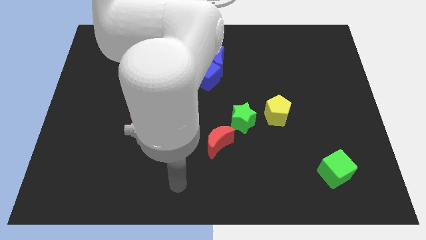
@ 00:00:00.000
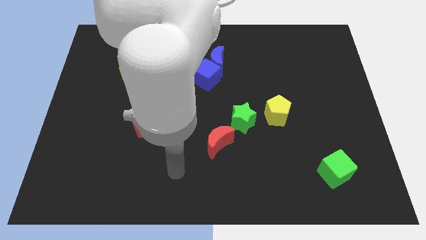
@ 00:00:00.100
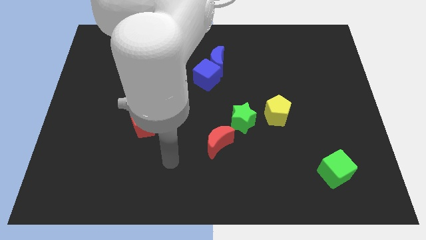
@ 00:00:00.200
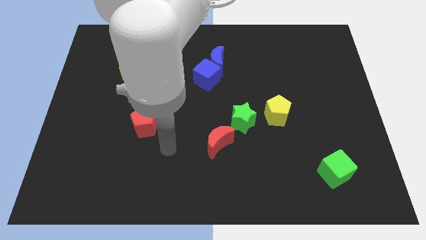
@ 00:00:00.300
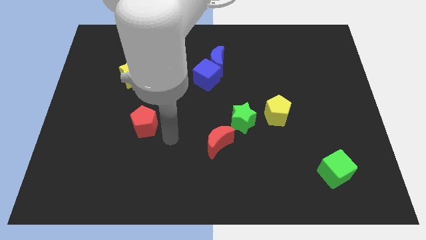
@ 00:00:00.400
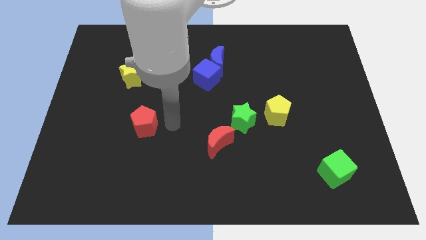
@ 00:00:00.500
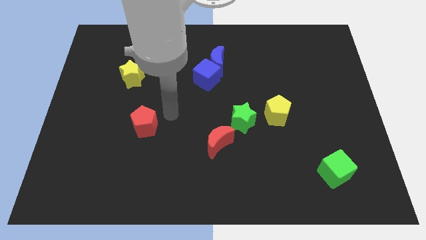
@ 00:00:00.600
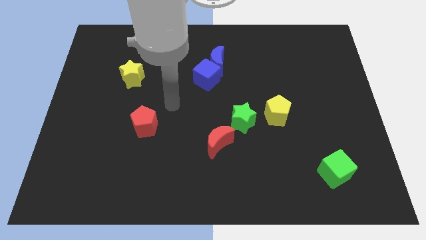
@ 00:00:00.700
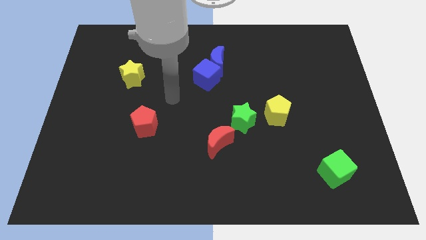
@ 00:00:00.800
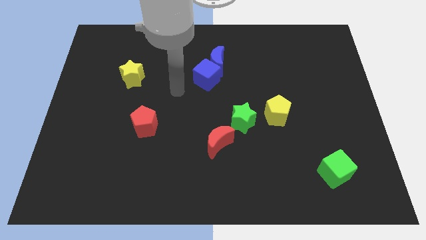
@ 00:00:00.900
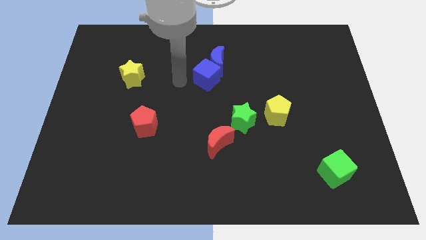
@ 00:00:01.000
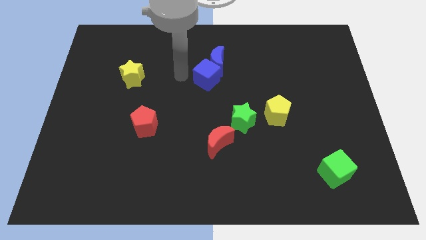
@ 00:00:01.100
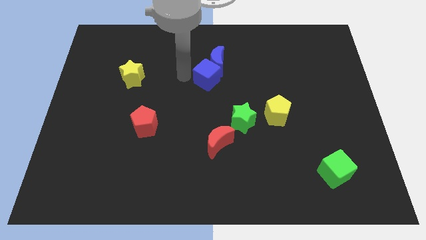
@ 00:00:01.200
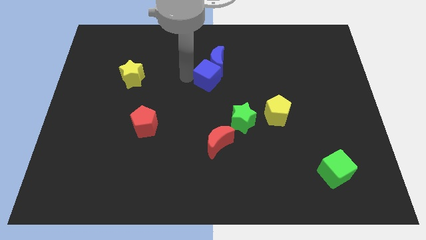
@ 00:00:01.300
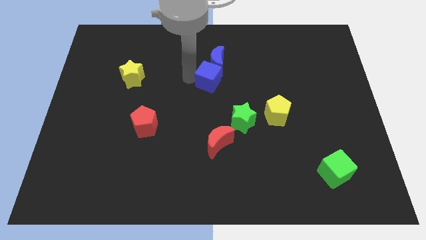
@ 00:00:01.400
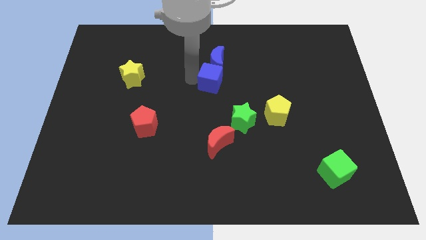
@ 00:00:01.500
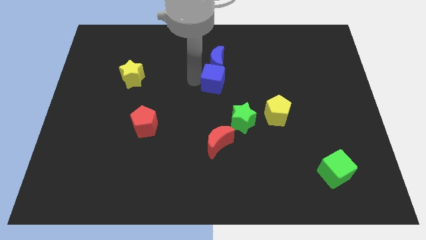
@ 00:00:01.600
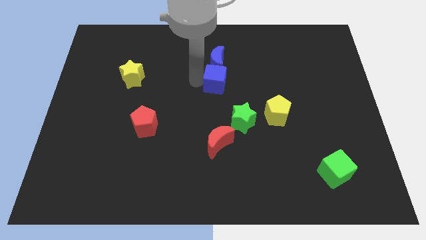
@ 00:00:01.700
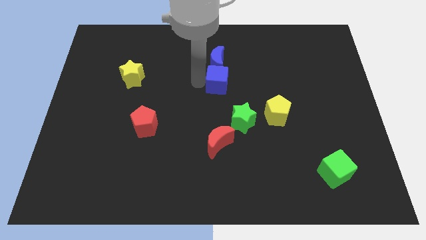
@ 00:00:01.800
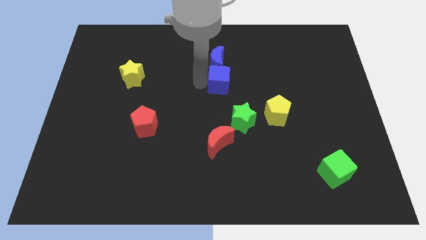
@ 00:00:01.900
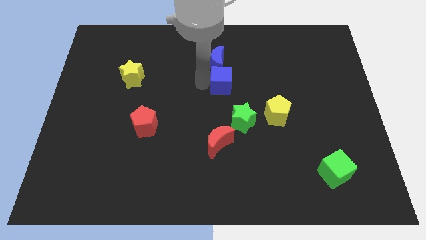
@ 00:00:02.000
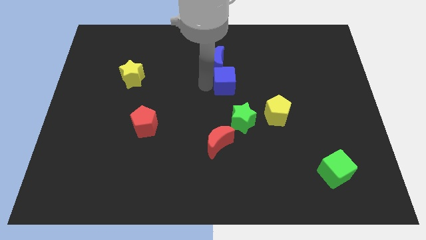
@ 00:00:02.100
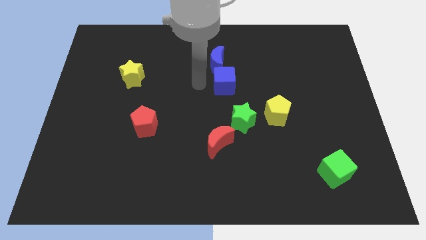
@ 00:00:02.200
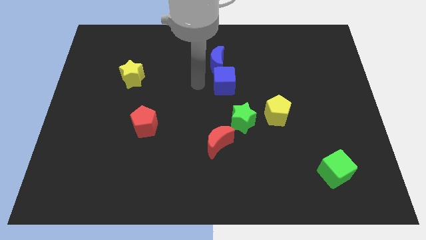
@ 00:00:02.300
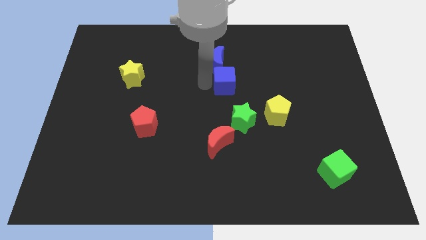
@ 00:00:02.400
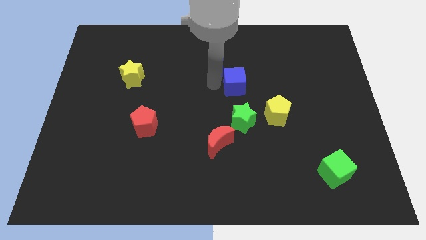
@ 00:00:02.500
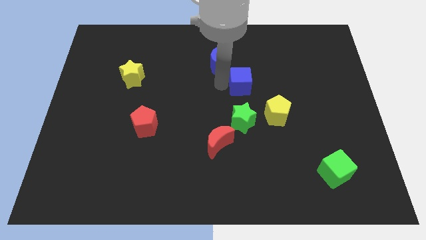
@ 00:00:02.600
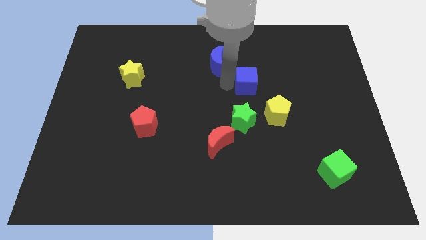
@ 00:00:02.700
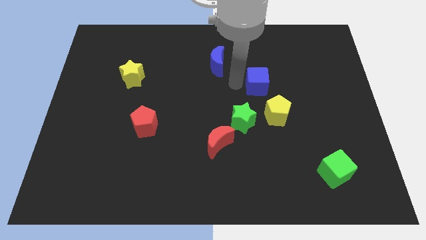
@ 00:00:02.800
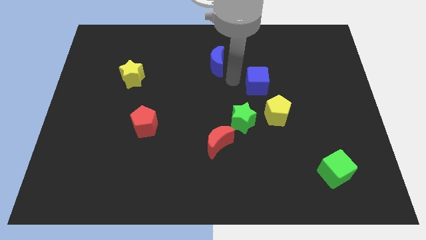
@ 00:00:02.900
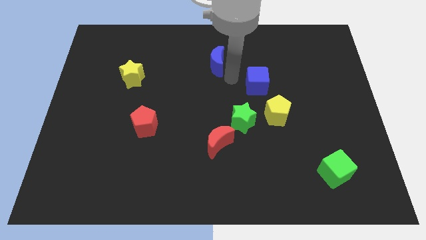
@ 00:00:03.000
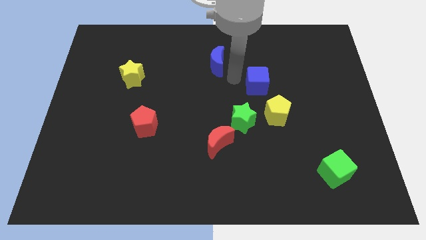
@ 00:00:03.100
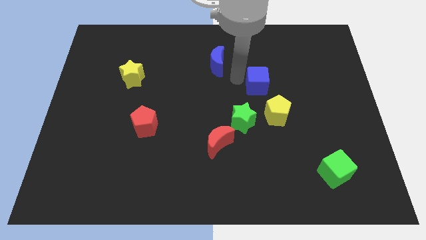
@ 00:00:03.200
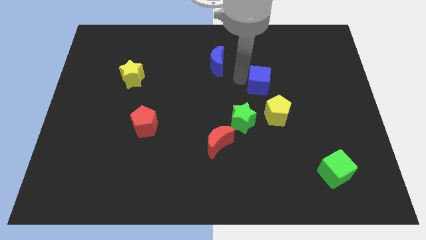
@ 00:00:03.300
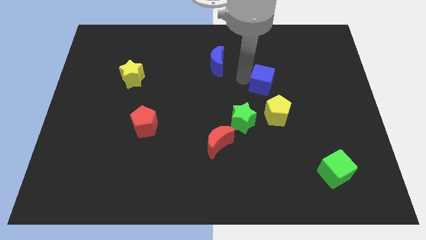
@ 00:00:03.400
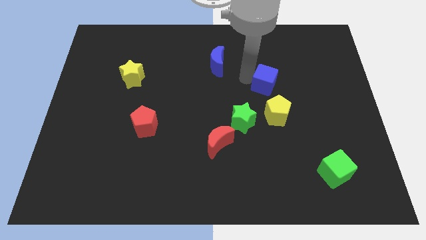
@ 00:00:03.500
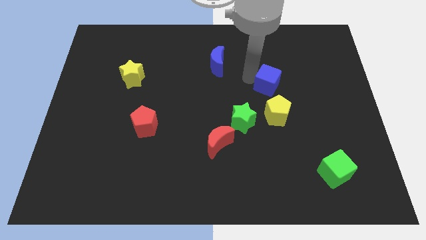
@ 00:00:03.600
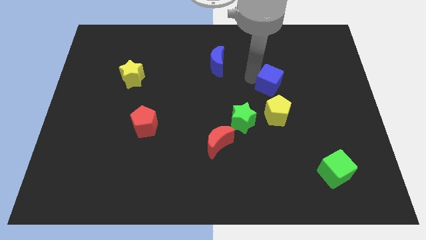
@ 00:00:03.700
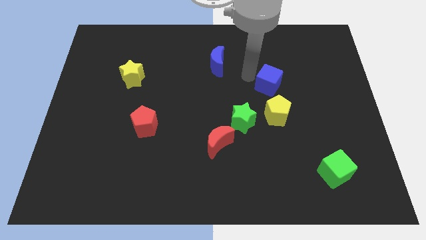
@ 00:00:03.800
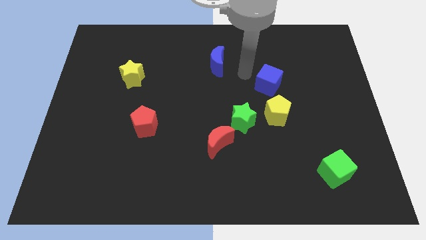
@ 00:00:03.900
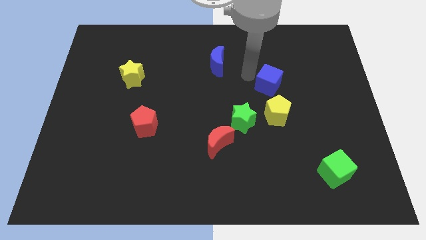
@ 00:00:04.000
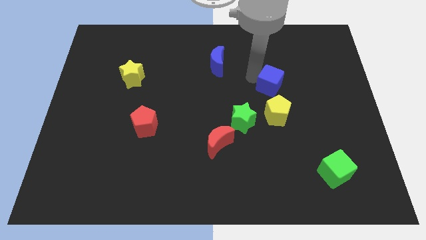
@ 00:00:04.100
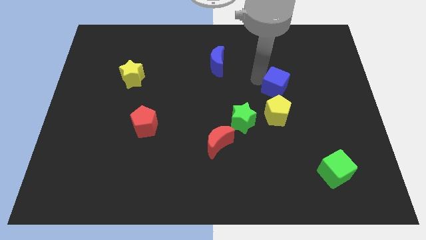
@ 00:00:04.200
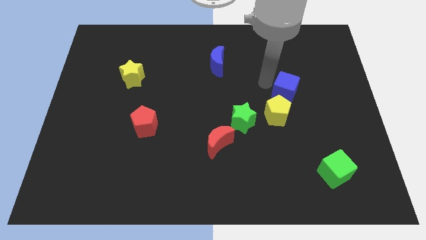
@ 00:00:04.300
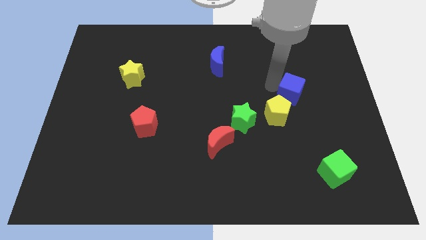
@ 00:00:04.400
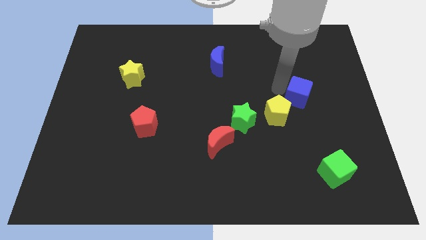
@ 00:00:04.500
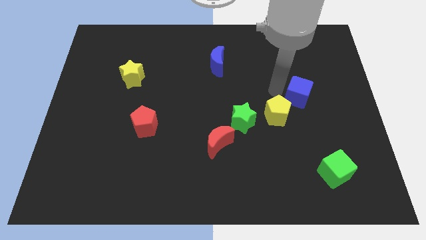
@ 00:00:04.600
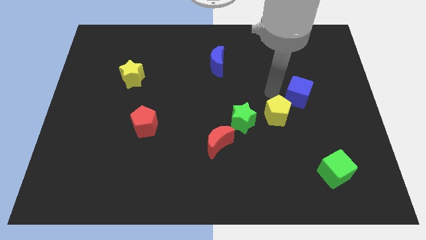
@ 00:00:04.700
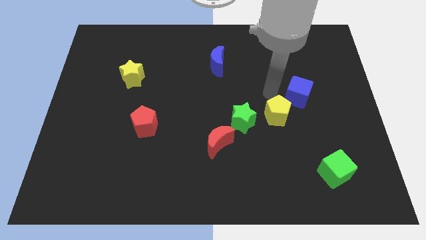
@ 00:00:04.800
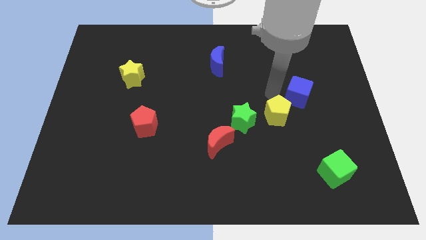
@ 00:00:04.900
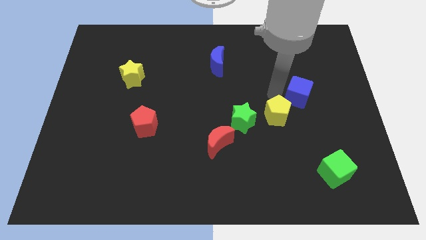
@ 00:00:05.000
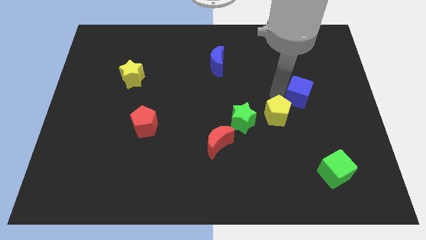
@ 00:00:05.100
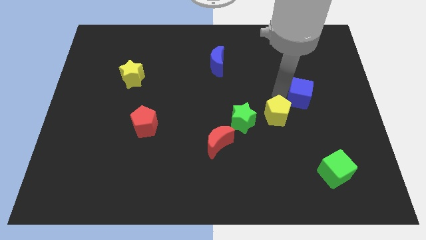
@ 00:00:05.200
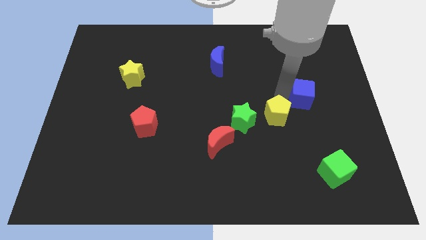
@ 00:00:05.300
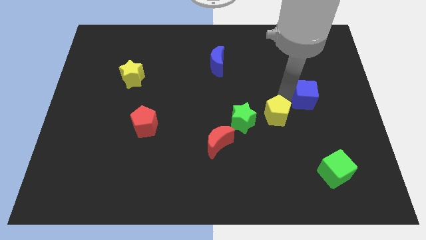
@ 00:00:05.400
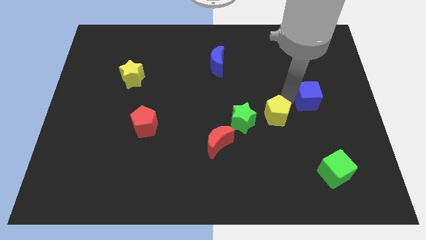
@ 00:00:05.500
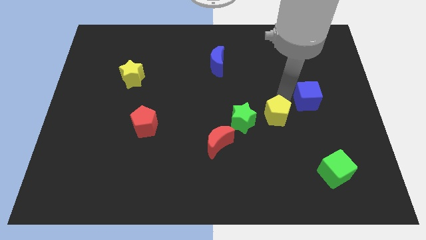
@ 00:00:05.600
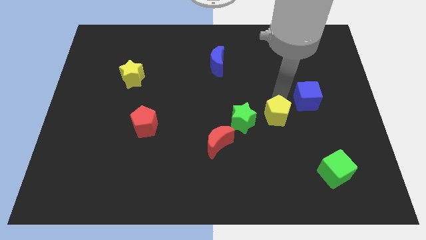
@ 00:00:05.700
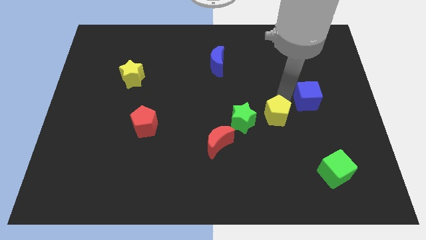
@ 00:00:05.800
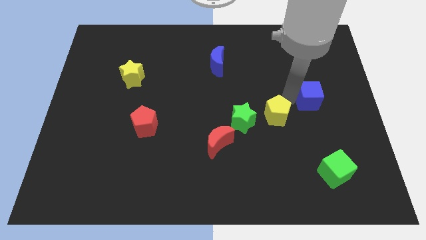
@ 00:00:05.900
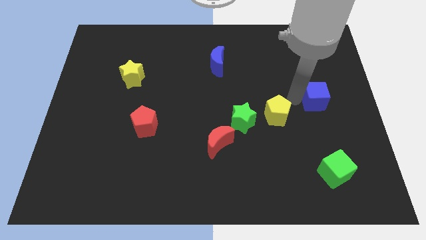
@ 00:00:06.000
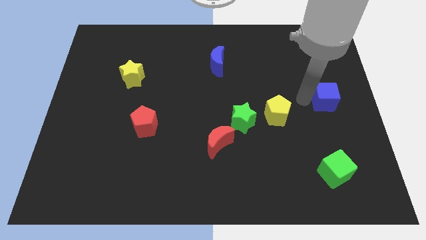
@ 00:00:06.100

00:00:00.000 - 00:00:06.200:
move the blue cube to the right side

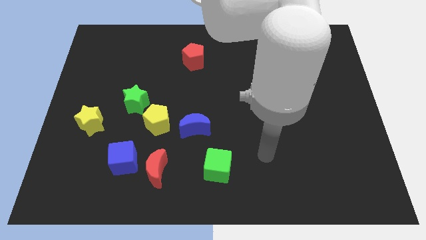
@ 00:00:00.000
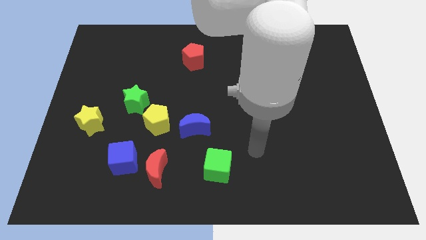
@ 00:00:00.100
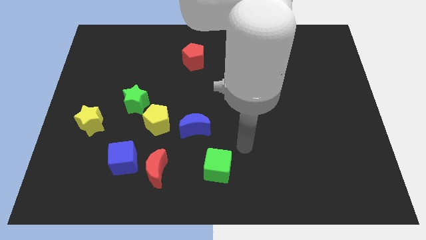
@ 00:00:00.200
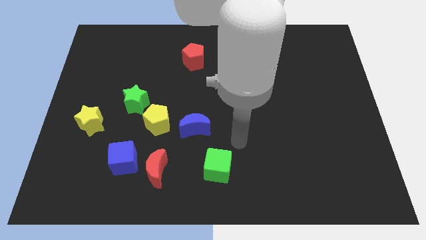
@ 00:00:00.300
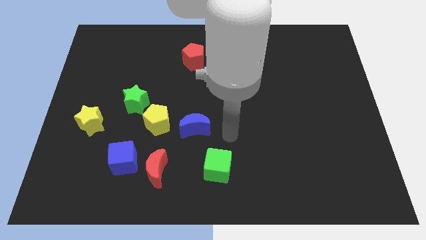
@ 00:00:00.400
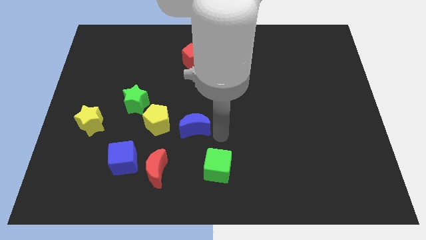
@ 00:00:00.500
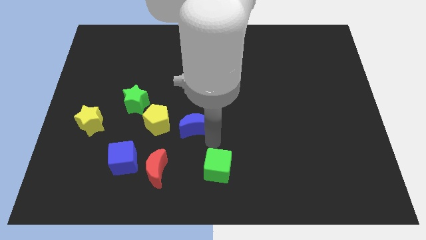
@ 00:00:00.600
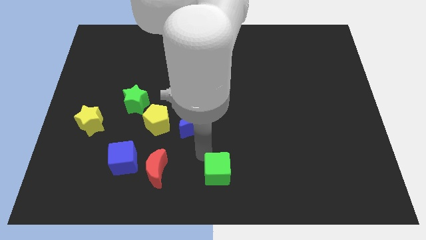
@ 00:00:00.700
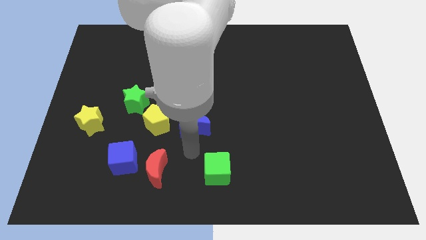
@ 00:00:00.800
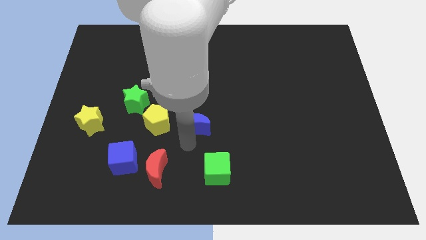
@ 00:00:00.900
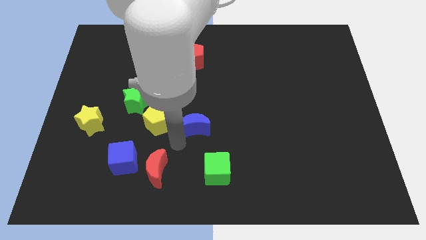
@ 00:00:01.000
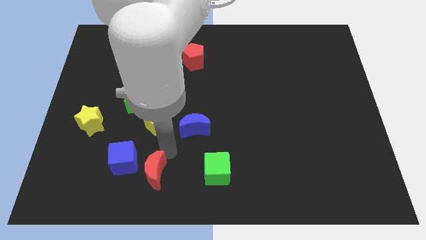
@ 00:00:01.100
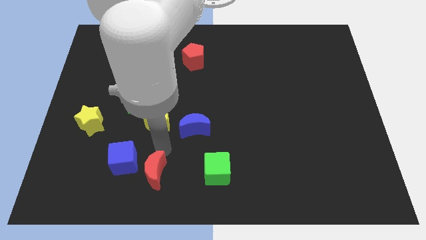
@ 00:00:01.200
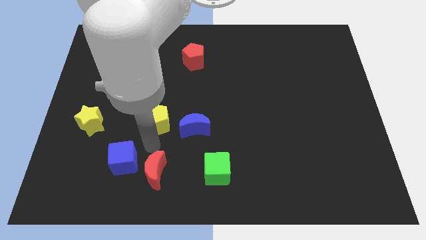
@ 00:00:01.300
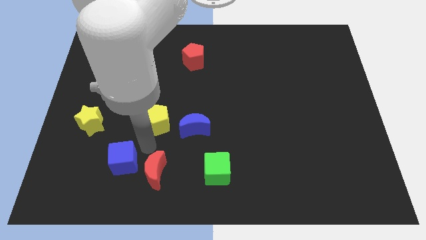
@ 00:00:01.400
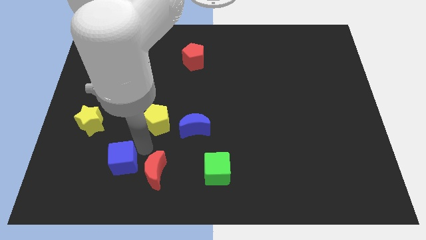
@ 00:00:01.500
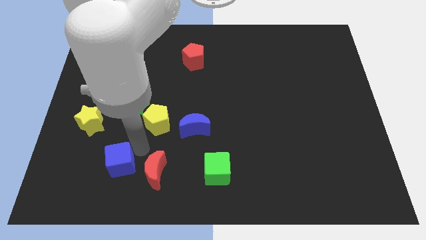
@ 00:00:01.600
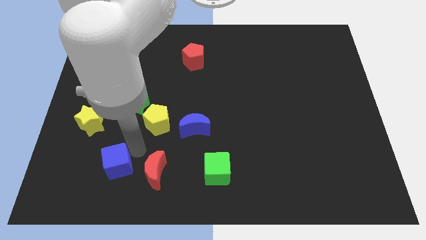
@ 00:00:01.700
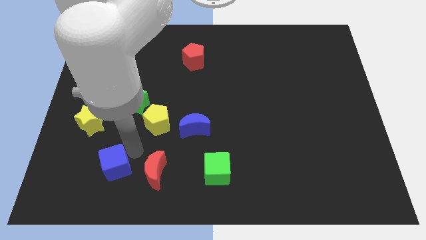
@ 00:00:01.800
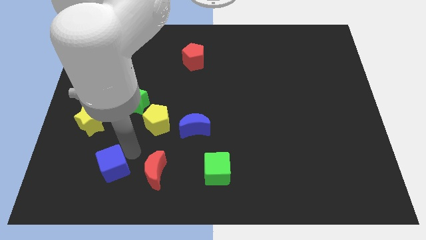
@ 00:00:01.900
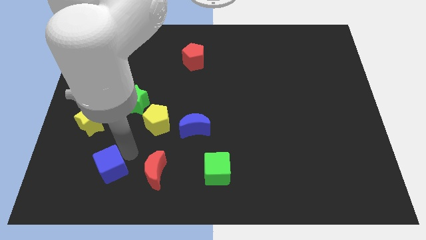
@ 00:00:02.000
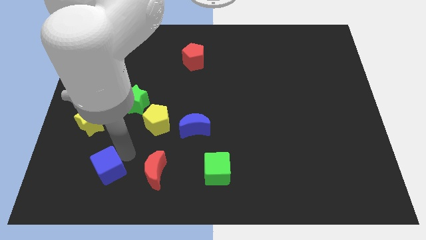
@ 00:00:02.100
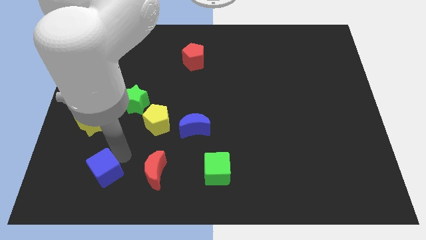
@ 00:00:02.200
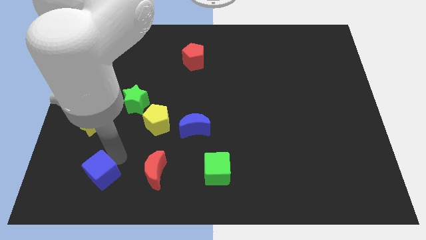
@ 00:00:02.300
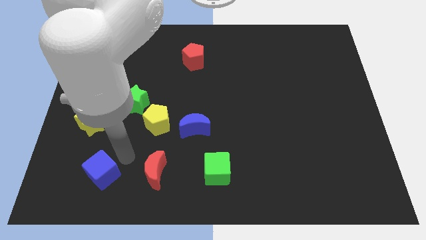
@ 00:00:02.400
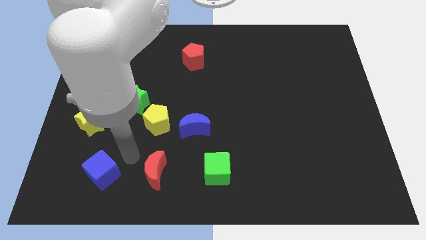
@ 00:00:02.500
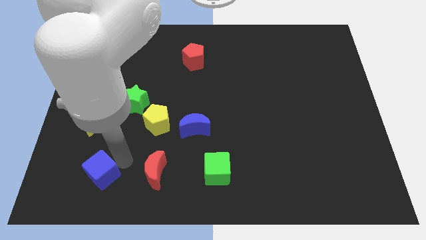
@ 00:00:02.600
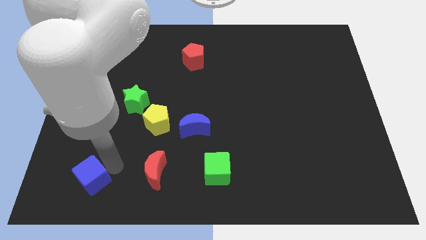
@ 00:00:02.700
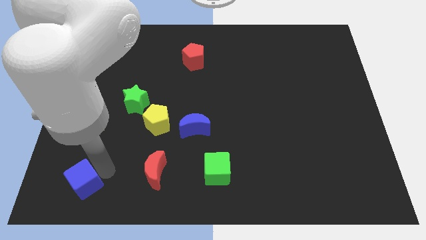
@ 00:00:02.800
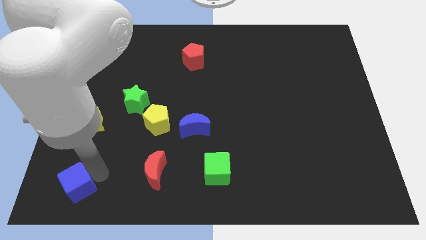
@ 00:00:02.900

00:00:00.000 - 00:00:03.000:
put the blue cube to the bottom left of the board
